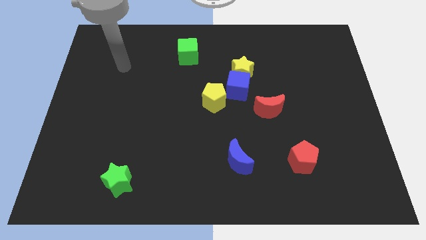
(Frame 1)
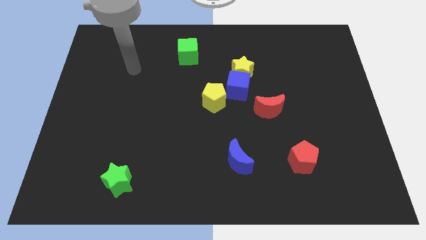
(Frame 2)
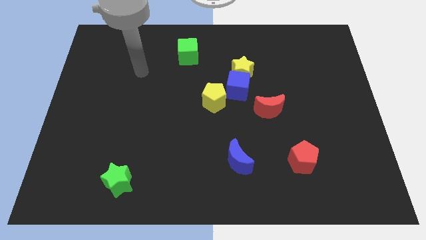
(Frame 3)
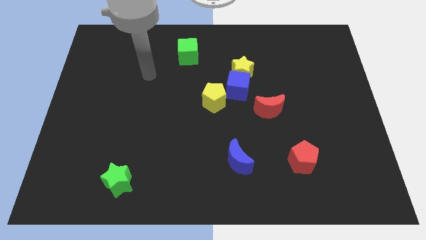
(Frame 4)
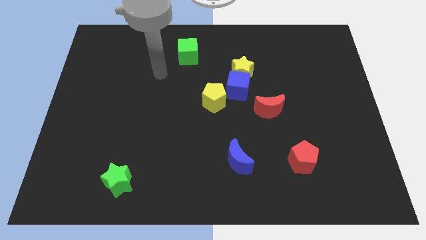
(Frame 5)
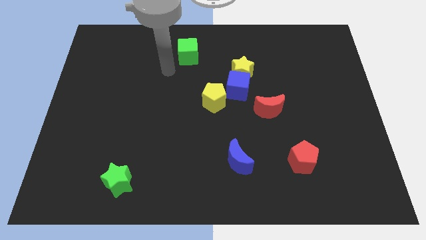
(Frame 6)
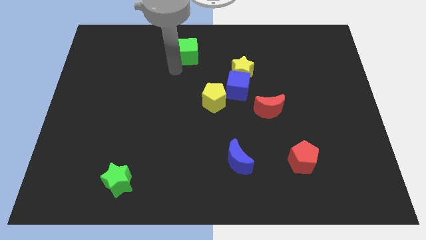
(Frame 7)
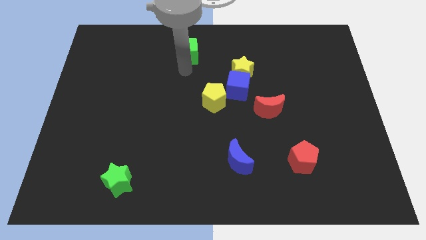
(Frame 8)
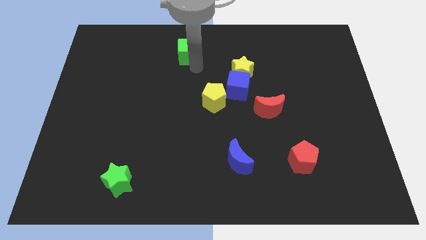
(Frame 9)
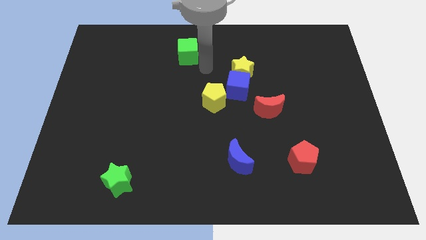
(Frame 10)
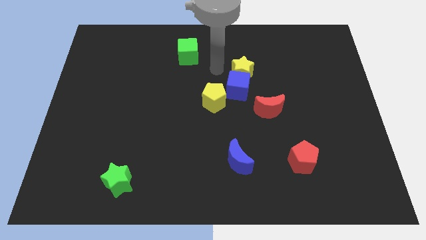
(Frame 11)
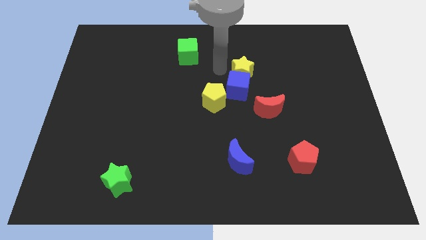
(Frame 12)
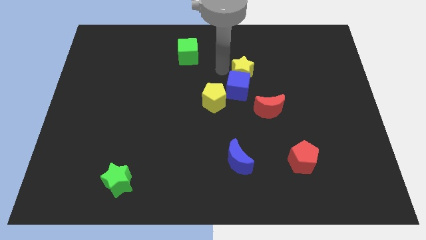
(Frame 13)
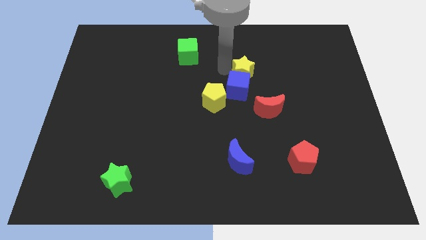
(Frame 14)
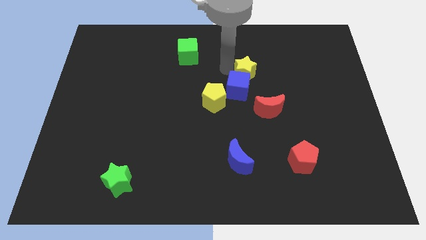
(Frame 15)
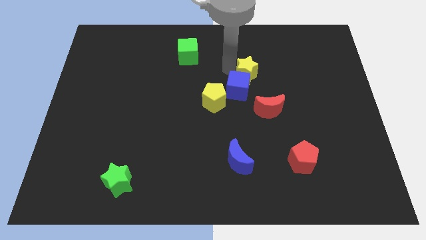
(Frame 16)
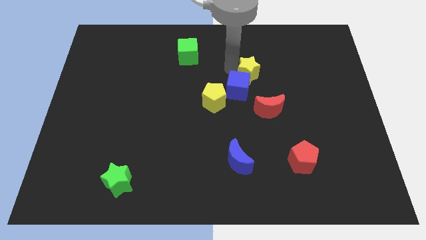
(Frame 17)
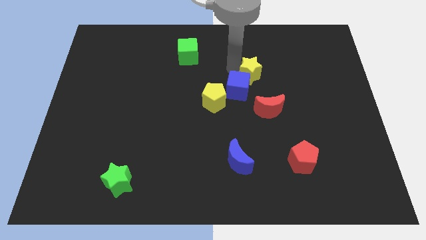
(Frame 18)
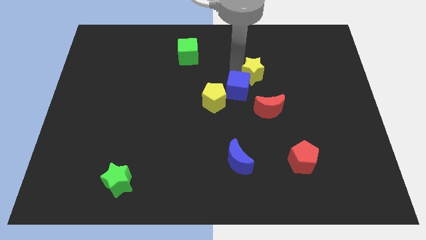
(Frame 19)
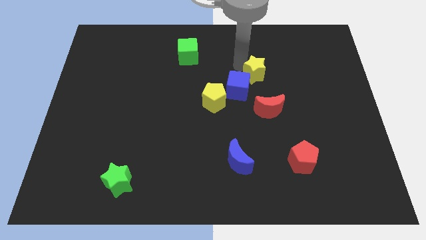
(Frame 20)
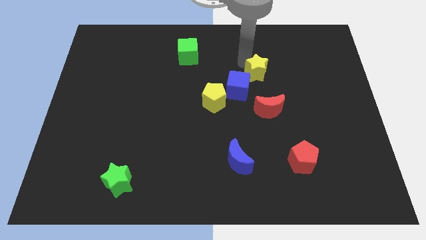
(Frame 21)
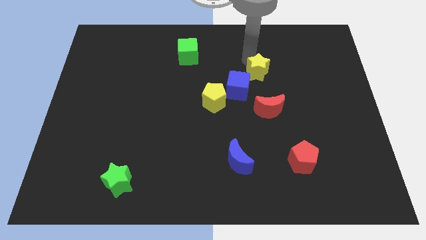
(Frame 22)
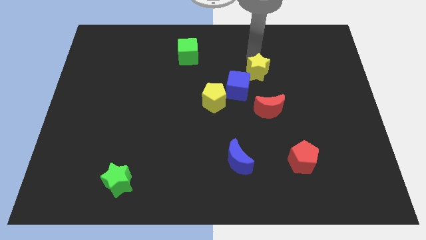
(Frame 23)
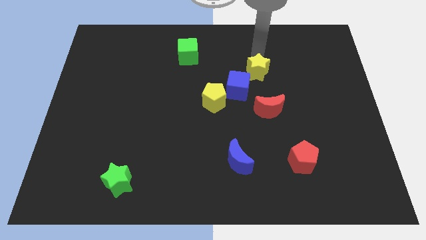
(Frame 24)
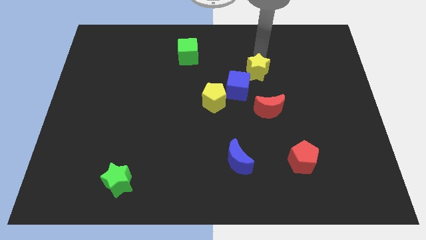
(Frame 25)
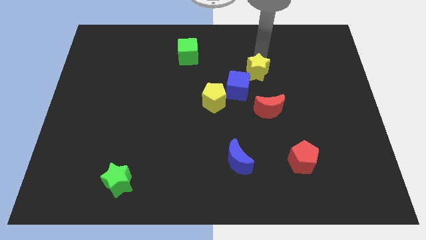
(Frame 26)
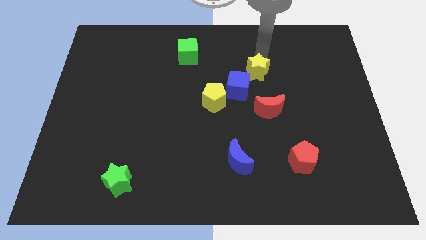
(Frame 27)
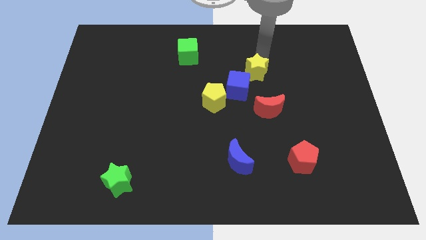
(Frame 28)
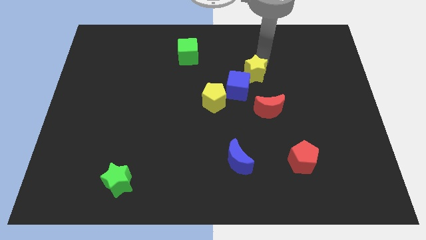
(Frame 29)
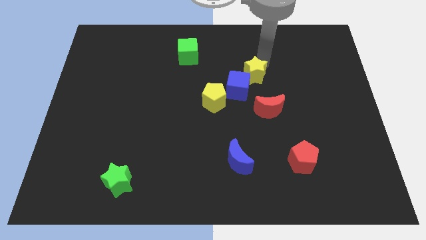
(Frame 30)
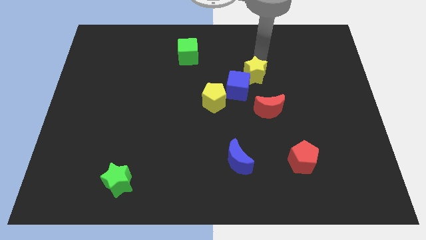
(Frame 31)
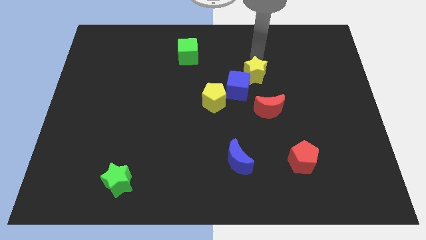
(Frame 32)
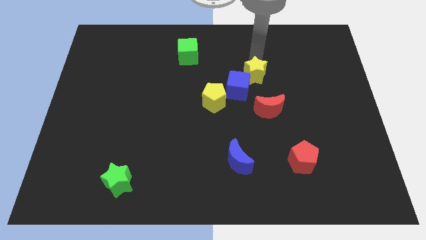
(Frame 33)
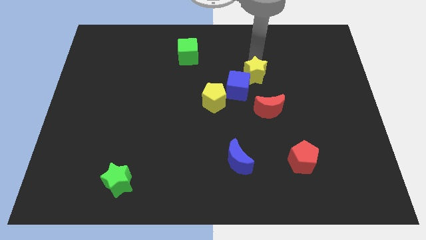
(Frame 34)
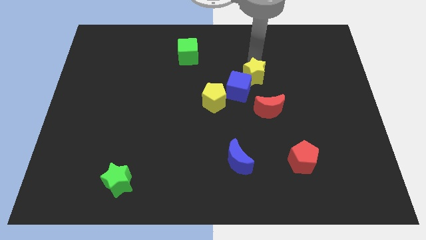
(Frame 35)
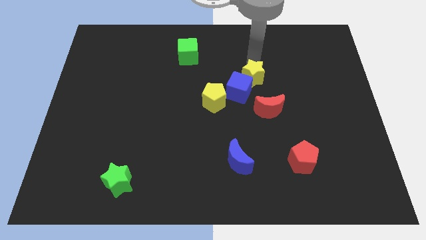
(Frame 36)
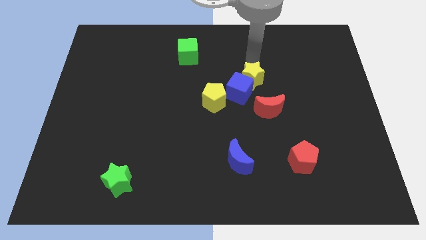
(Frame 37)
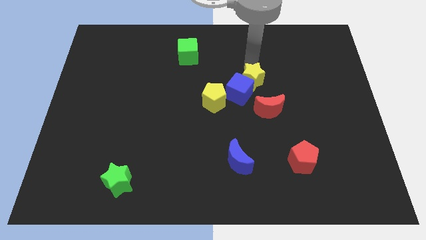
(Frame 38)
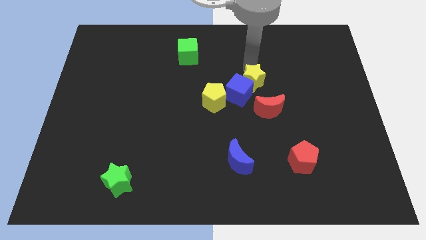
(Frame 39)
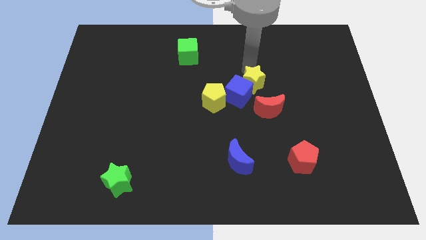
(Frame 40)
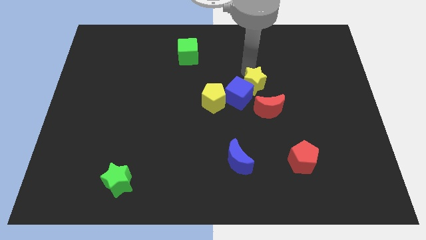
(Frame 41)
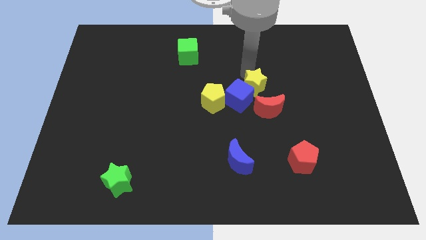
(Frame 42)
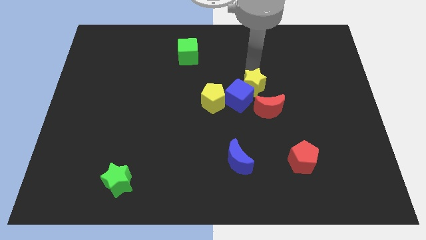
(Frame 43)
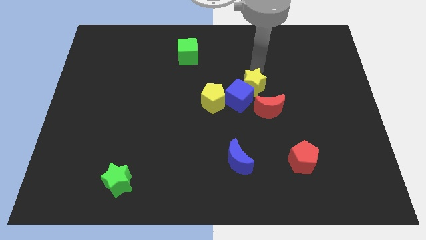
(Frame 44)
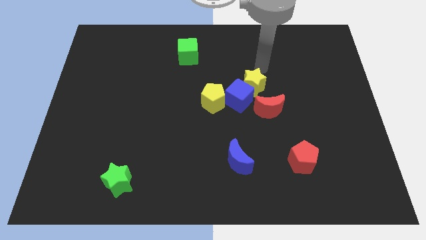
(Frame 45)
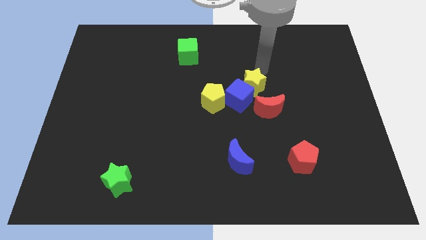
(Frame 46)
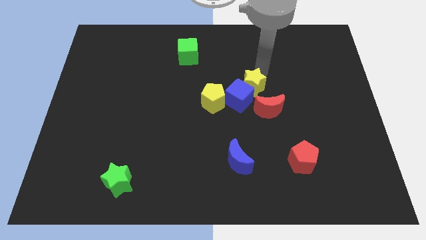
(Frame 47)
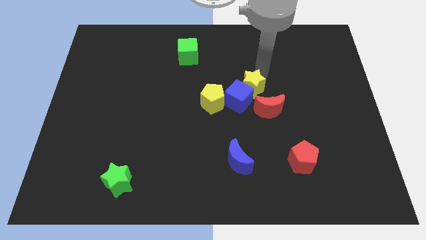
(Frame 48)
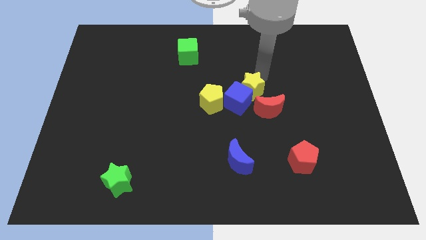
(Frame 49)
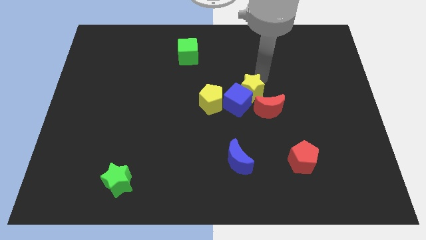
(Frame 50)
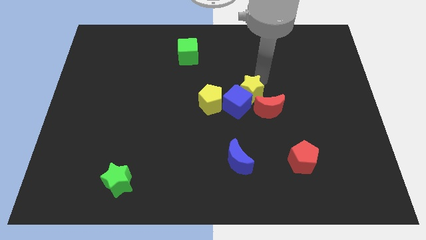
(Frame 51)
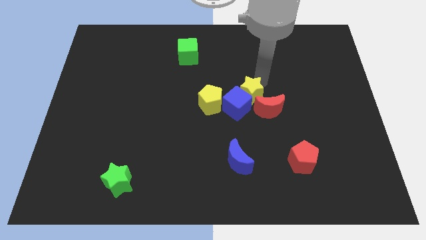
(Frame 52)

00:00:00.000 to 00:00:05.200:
slightly move the yellow star down

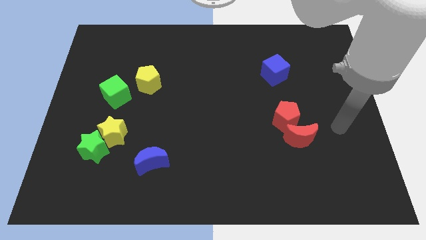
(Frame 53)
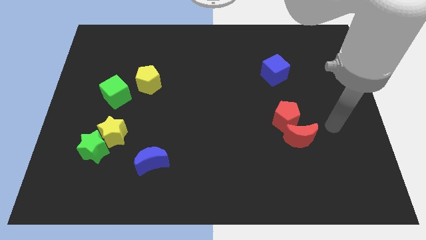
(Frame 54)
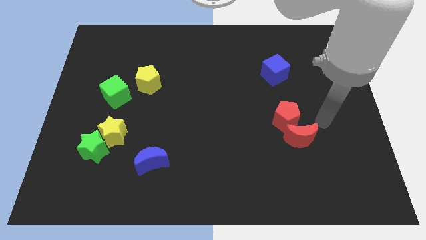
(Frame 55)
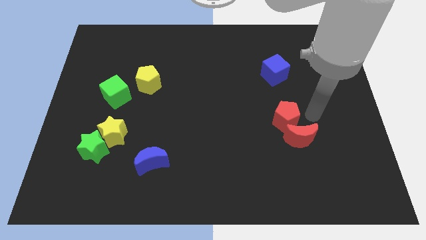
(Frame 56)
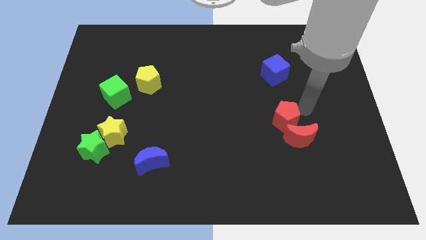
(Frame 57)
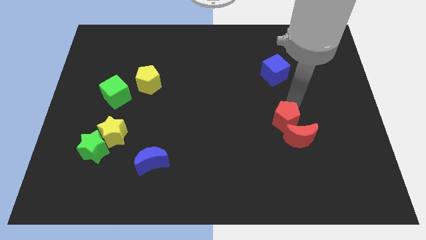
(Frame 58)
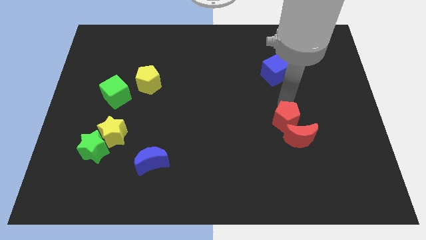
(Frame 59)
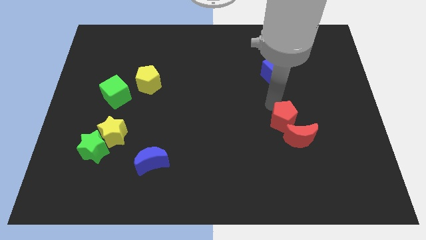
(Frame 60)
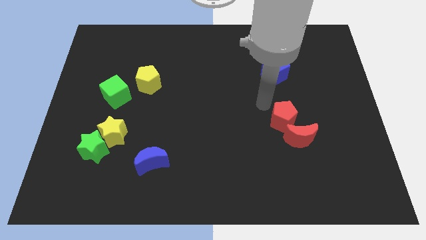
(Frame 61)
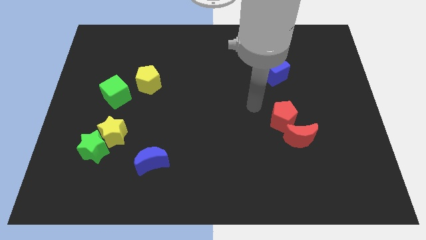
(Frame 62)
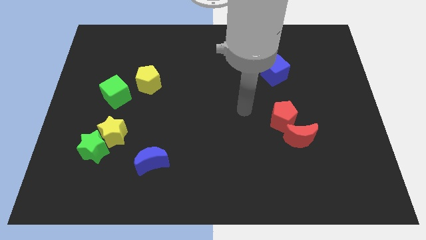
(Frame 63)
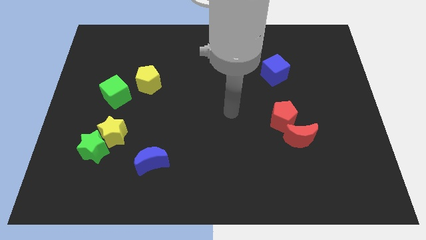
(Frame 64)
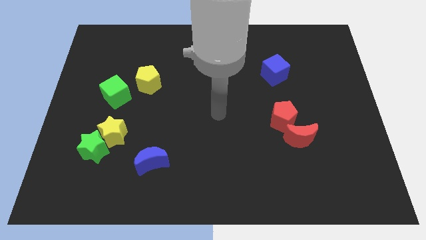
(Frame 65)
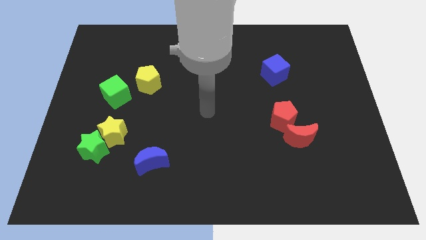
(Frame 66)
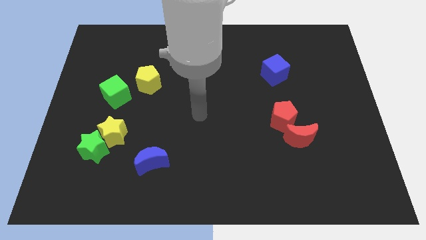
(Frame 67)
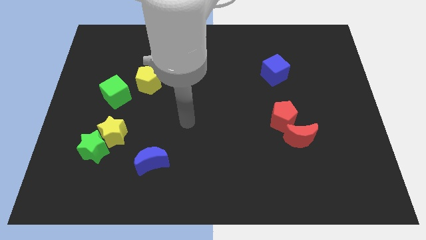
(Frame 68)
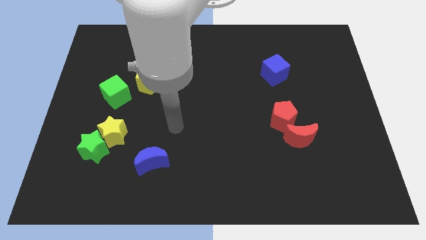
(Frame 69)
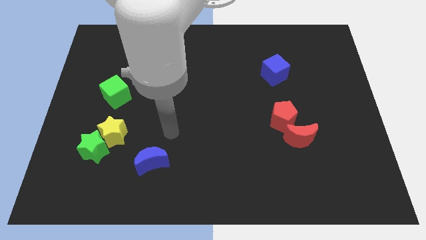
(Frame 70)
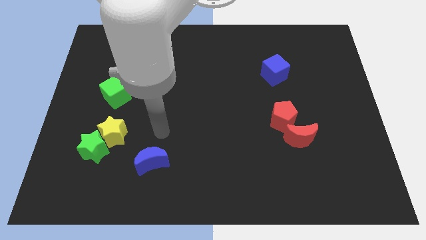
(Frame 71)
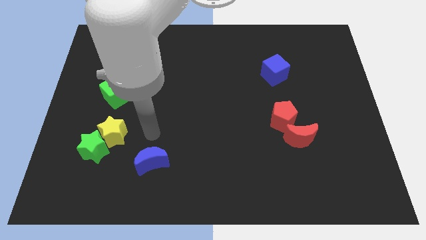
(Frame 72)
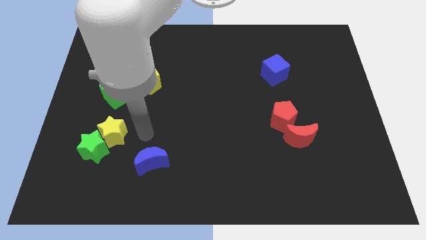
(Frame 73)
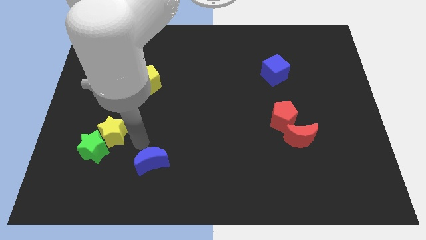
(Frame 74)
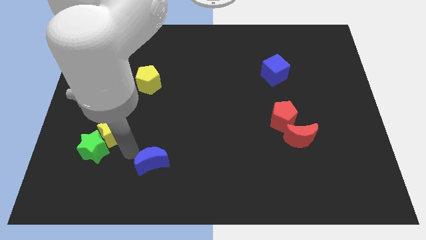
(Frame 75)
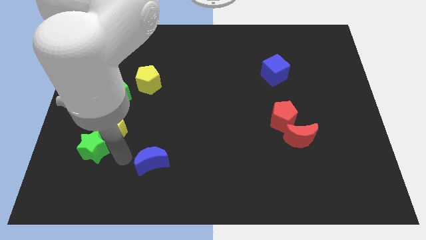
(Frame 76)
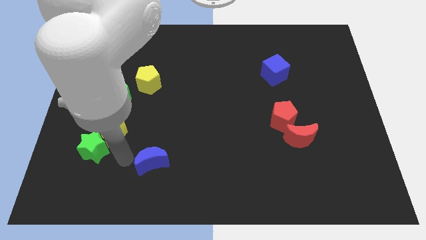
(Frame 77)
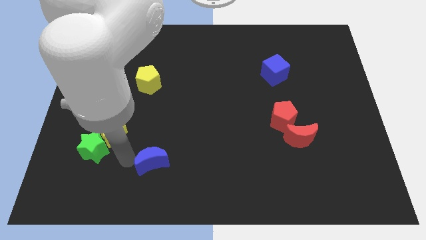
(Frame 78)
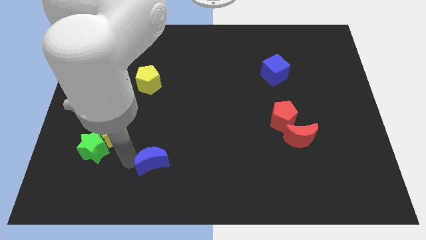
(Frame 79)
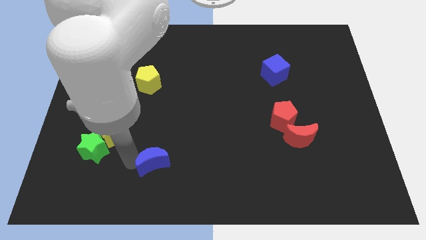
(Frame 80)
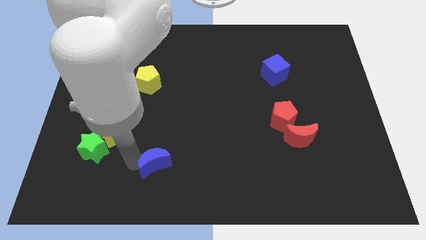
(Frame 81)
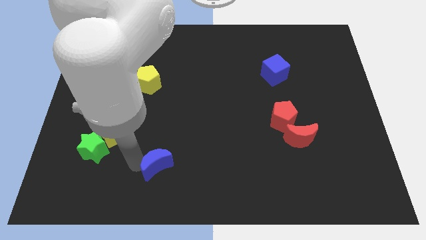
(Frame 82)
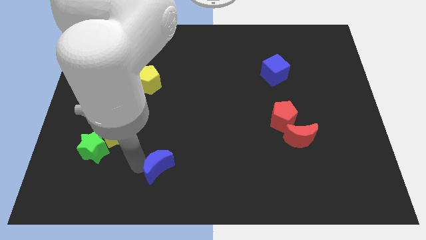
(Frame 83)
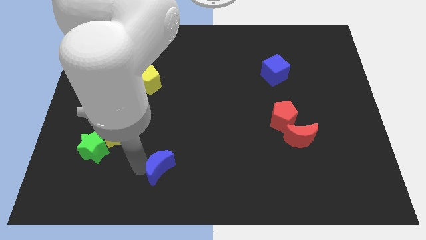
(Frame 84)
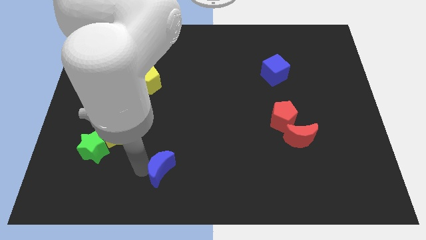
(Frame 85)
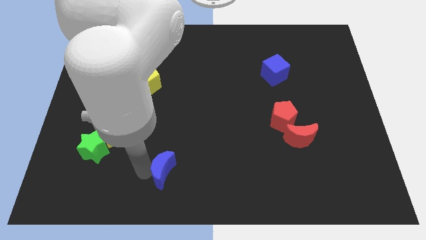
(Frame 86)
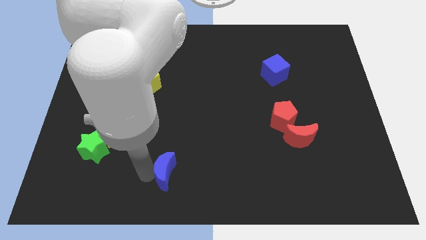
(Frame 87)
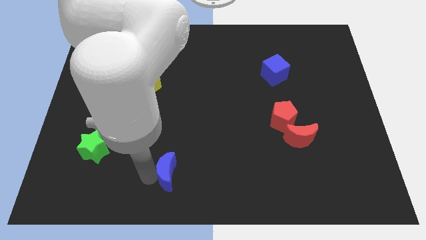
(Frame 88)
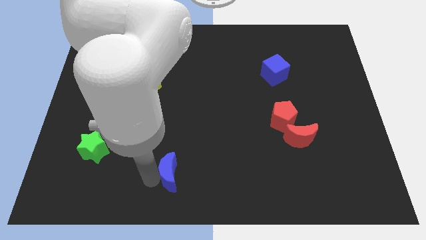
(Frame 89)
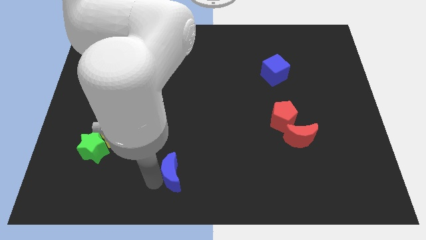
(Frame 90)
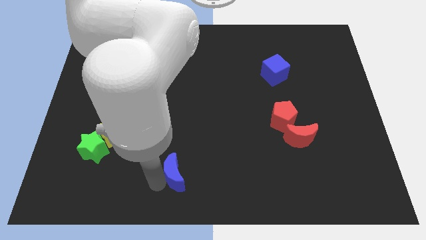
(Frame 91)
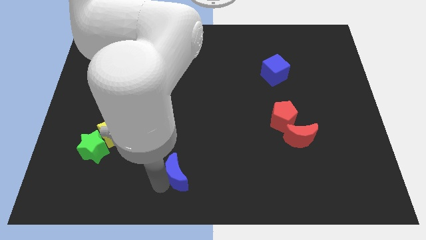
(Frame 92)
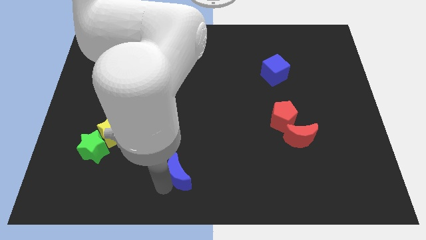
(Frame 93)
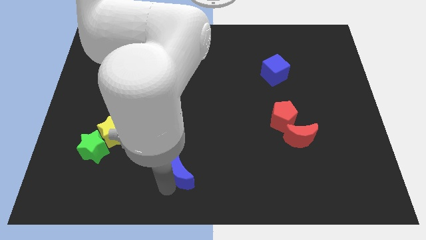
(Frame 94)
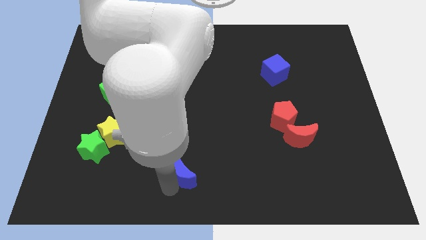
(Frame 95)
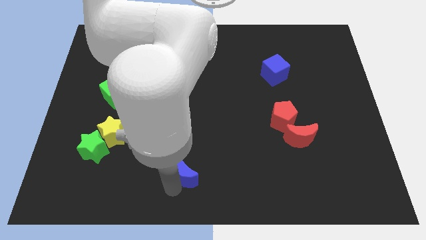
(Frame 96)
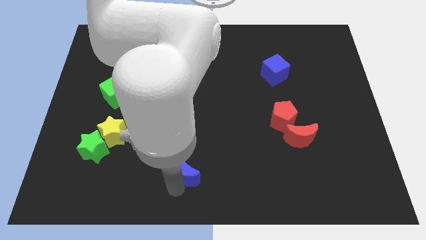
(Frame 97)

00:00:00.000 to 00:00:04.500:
push the blue moon right a little bit
